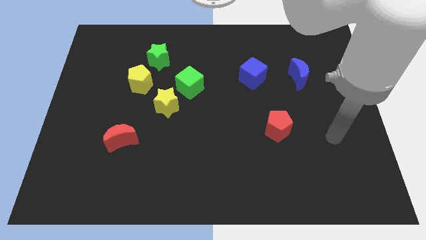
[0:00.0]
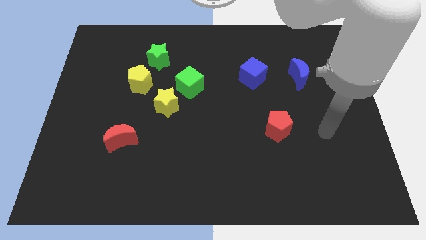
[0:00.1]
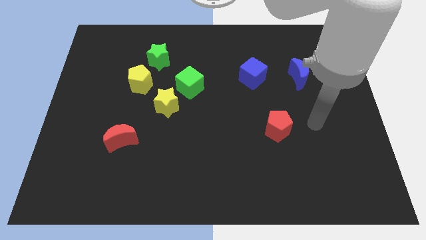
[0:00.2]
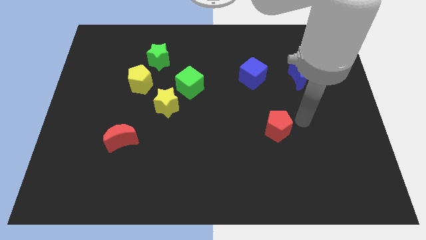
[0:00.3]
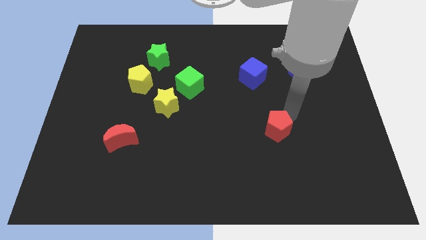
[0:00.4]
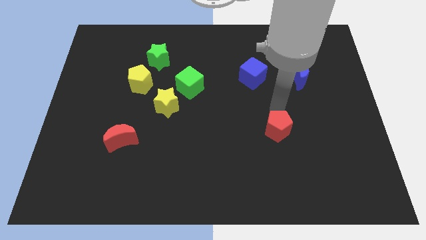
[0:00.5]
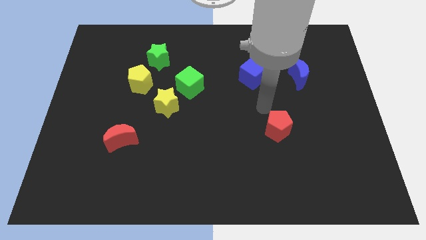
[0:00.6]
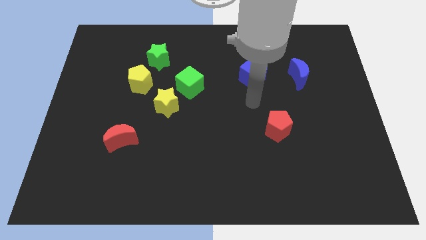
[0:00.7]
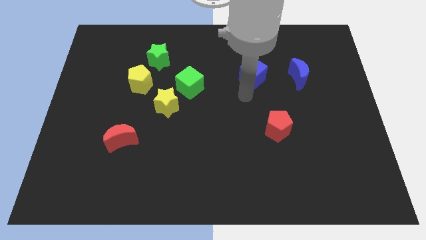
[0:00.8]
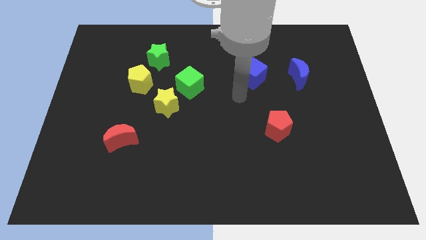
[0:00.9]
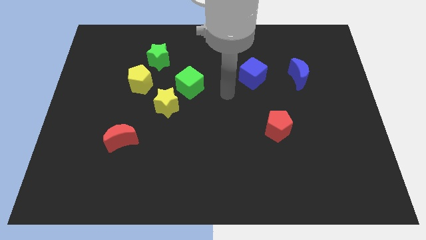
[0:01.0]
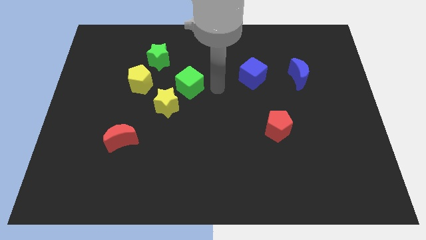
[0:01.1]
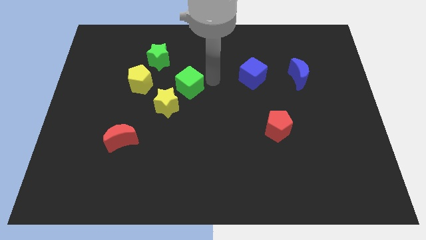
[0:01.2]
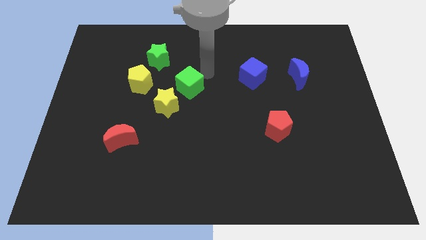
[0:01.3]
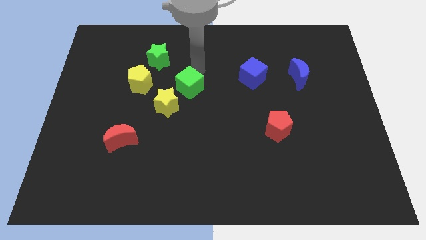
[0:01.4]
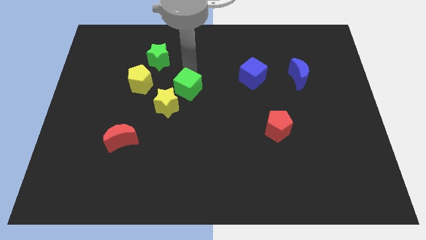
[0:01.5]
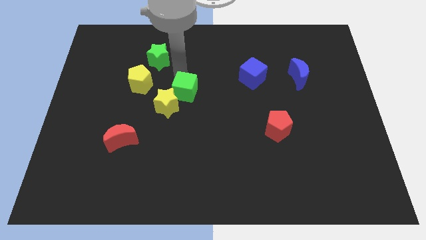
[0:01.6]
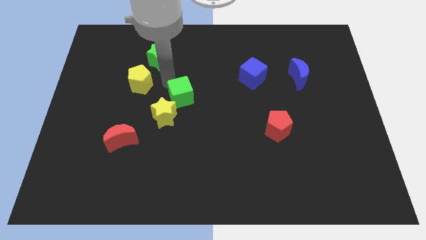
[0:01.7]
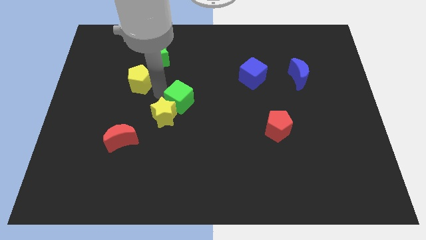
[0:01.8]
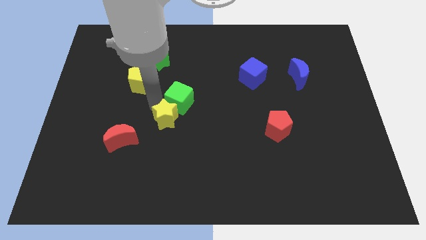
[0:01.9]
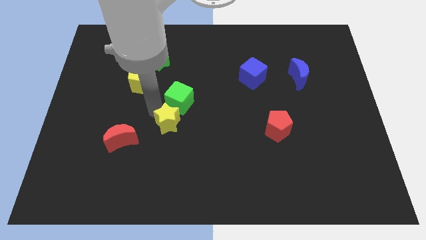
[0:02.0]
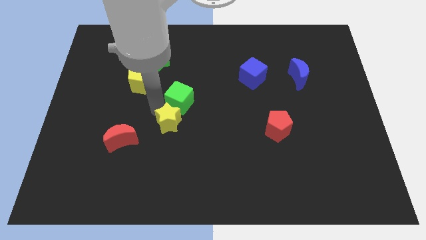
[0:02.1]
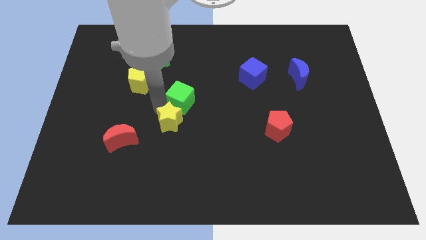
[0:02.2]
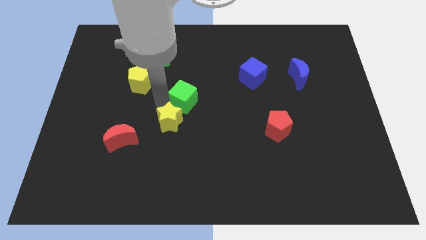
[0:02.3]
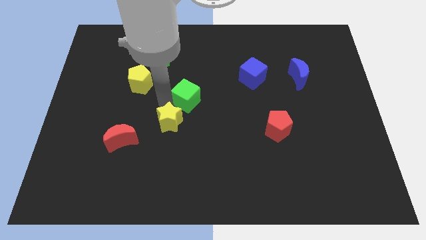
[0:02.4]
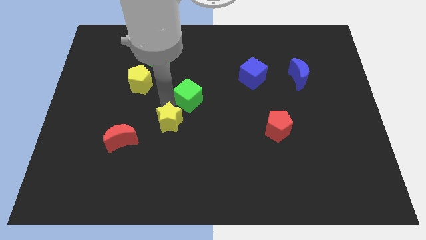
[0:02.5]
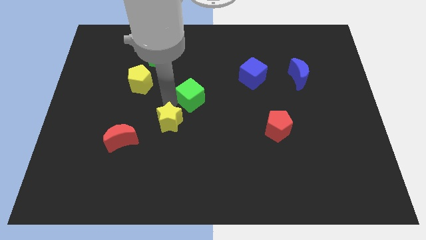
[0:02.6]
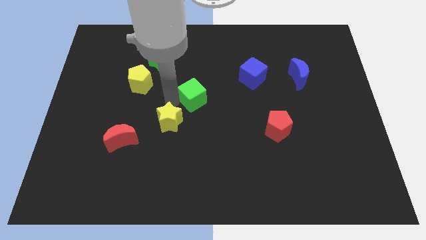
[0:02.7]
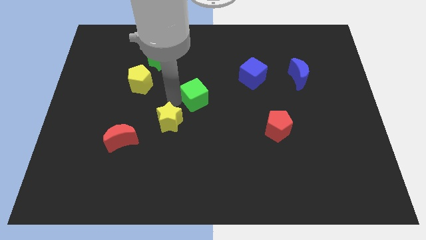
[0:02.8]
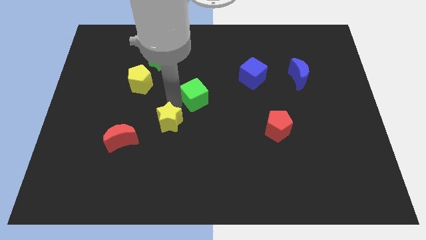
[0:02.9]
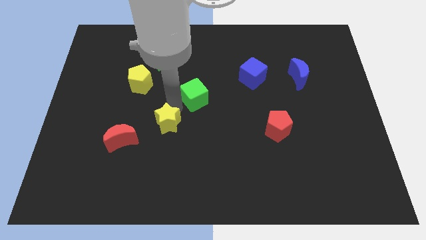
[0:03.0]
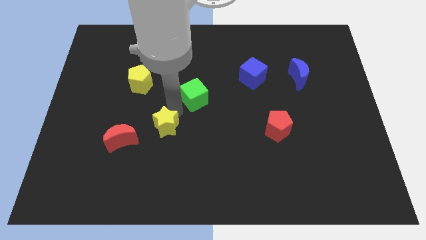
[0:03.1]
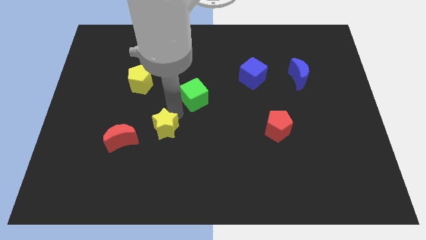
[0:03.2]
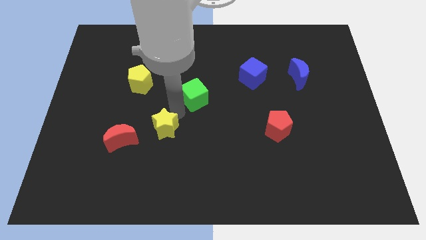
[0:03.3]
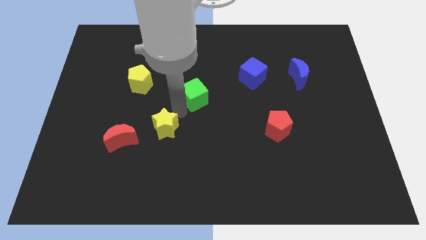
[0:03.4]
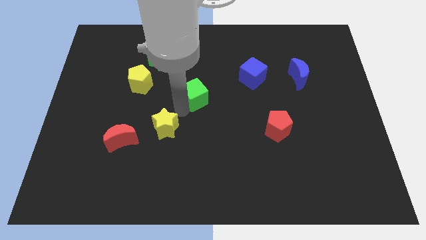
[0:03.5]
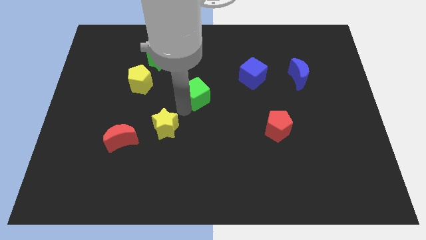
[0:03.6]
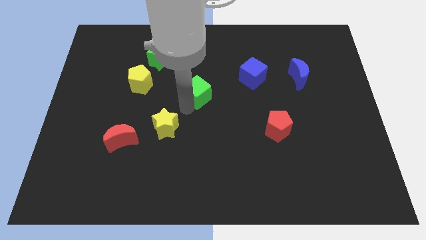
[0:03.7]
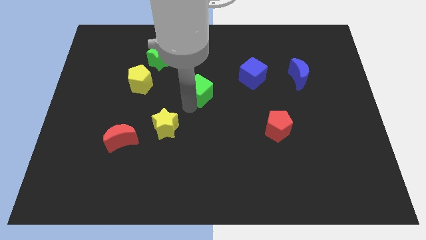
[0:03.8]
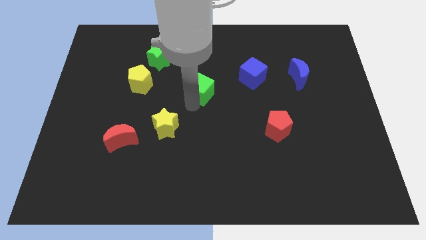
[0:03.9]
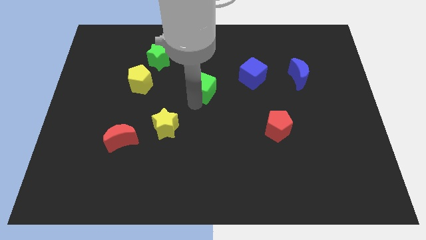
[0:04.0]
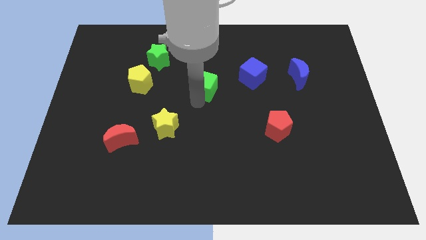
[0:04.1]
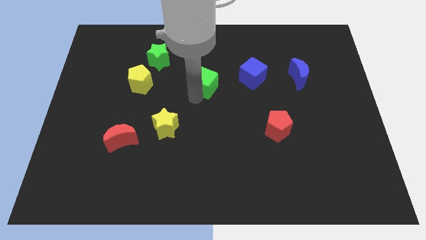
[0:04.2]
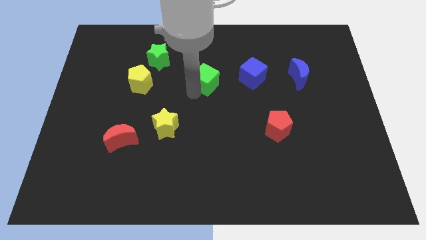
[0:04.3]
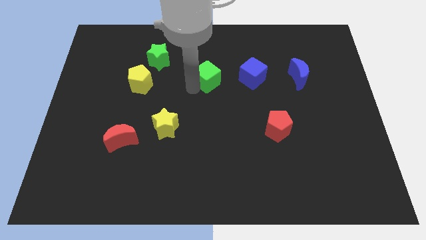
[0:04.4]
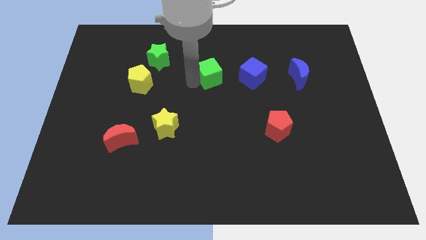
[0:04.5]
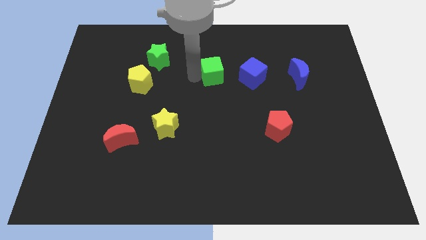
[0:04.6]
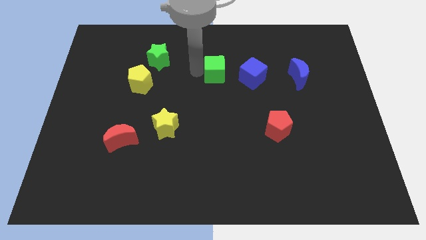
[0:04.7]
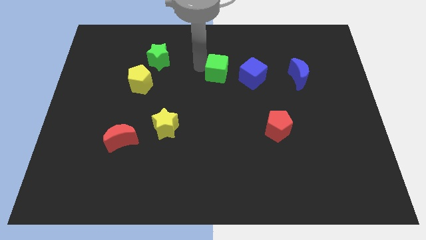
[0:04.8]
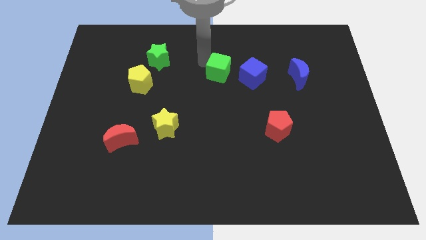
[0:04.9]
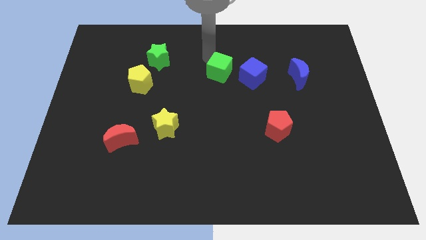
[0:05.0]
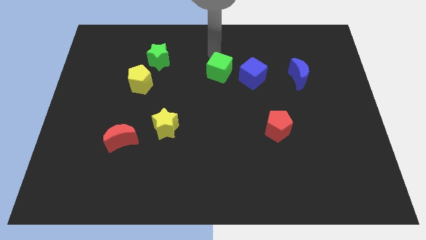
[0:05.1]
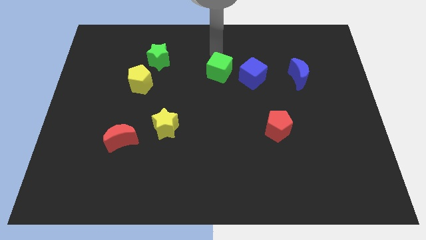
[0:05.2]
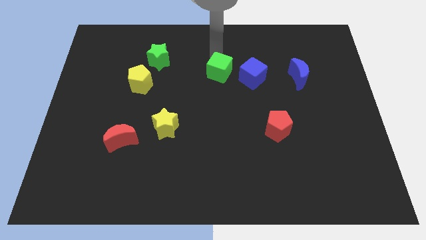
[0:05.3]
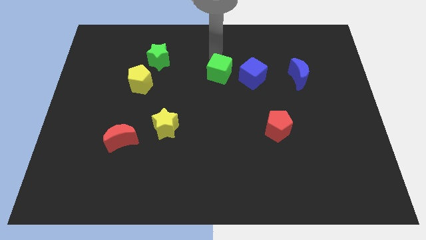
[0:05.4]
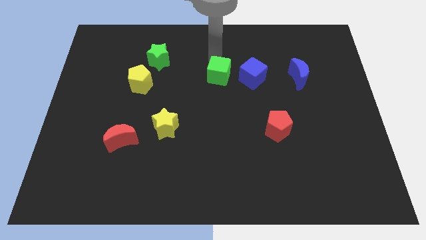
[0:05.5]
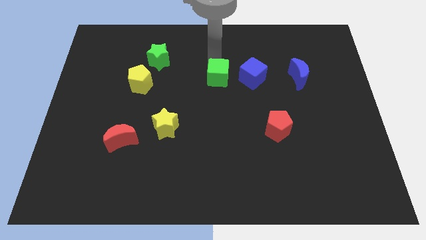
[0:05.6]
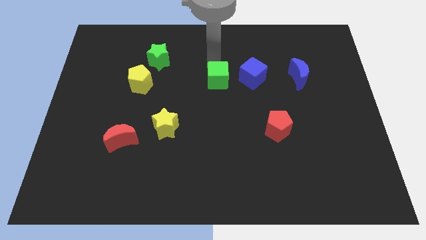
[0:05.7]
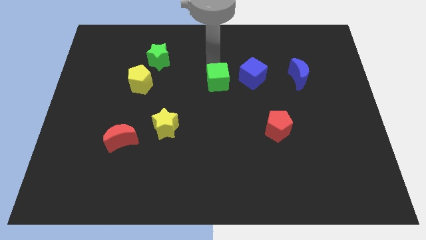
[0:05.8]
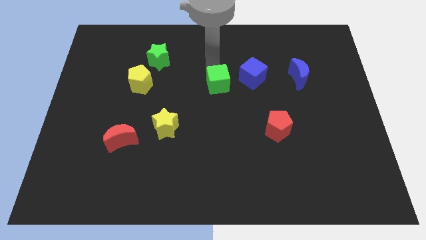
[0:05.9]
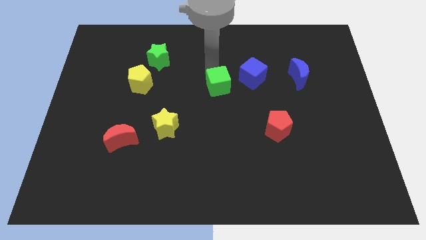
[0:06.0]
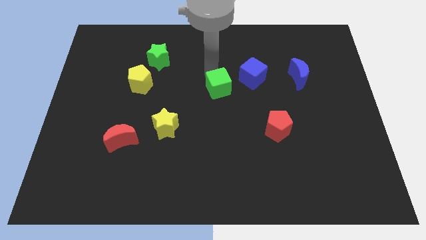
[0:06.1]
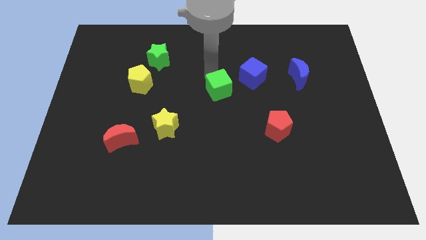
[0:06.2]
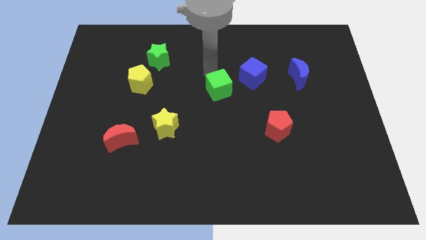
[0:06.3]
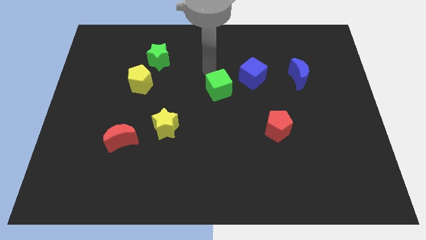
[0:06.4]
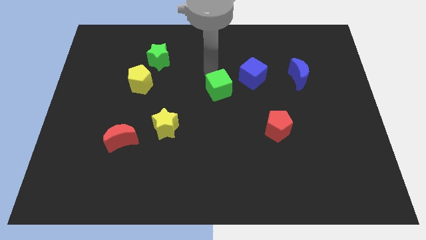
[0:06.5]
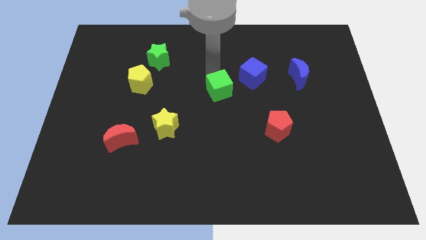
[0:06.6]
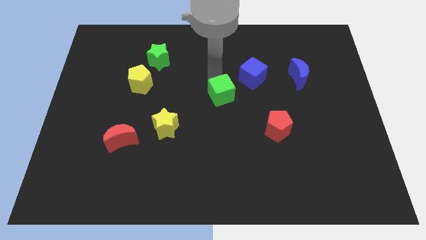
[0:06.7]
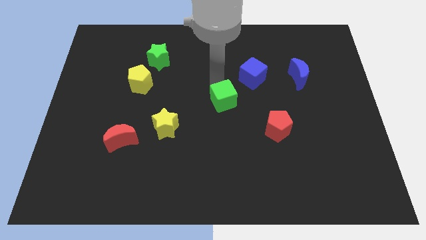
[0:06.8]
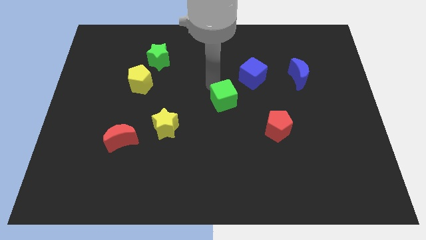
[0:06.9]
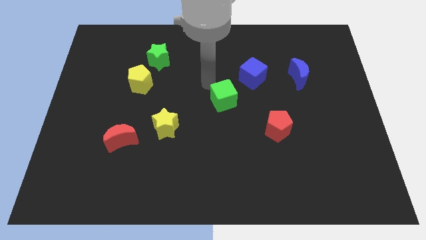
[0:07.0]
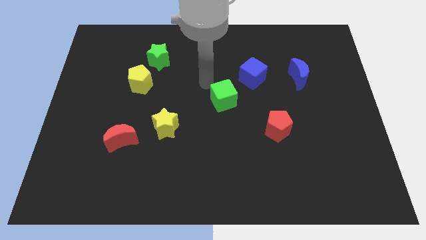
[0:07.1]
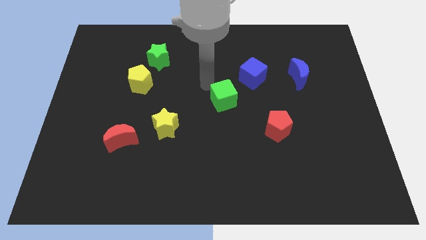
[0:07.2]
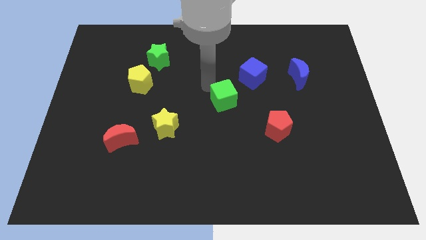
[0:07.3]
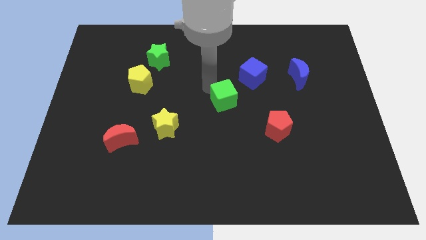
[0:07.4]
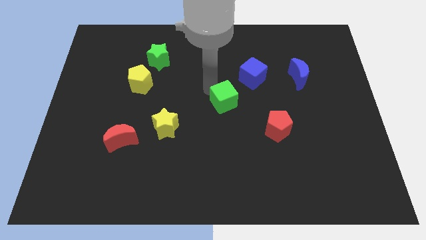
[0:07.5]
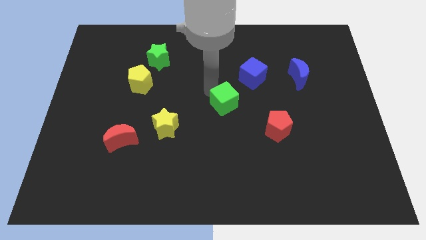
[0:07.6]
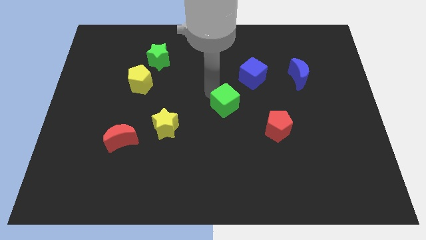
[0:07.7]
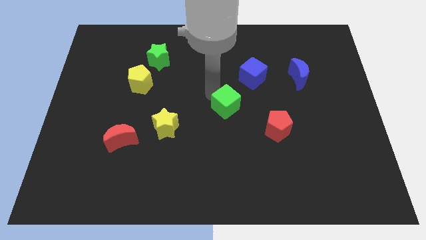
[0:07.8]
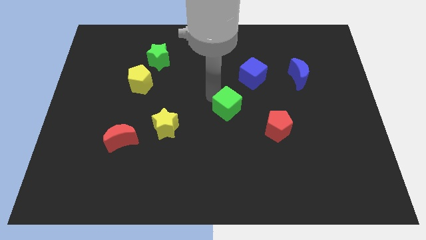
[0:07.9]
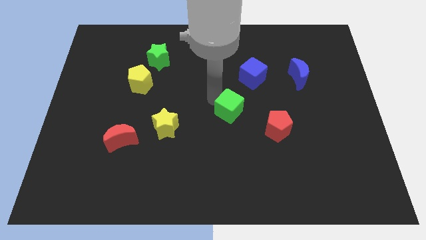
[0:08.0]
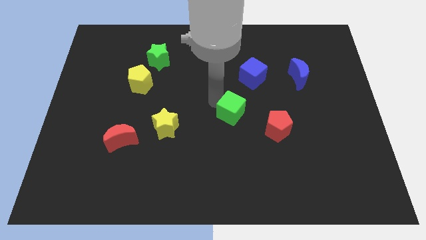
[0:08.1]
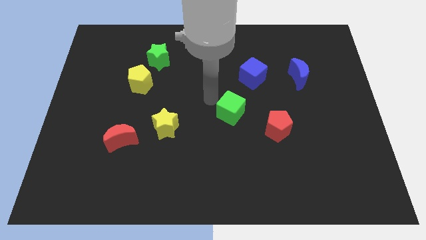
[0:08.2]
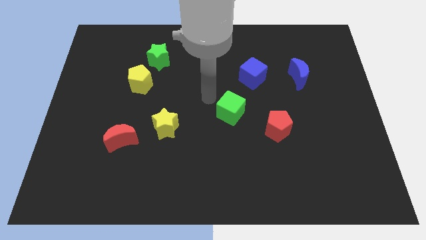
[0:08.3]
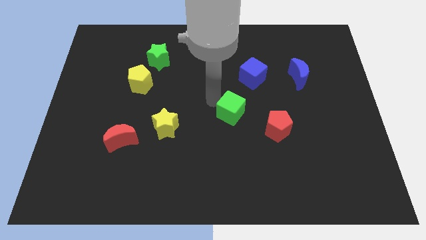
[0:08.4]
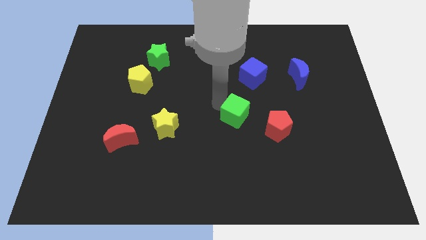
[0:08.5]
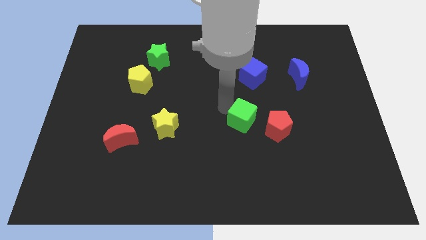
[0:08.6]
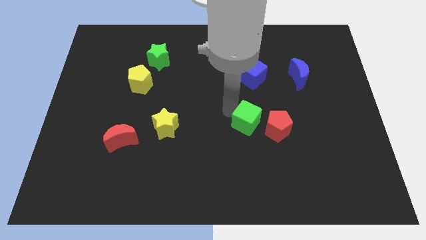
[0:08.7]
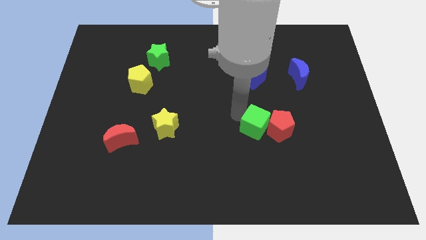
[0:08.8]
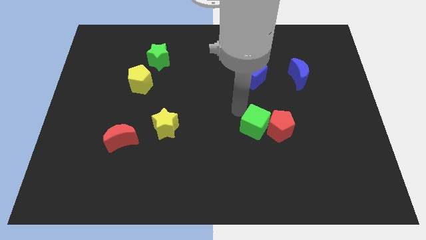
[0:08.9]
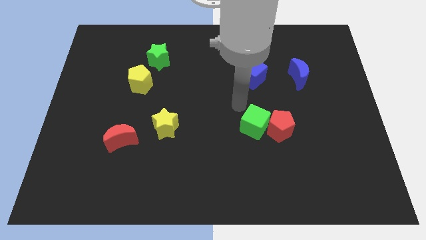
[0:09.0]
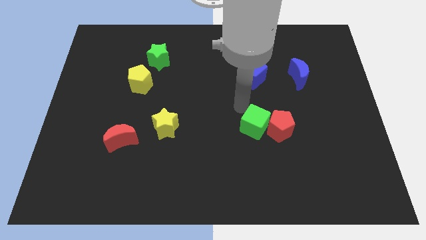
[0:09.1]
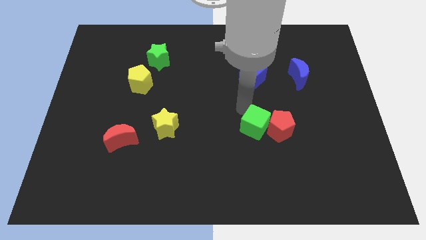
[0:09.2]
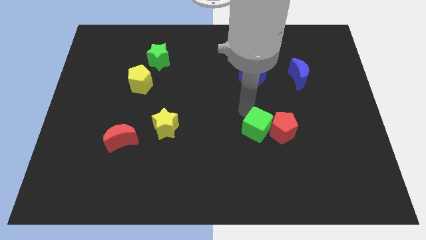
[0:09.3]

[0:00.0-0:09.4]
slide the green cube diagonally down and to the right
